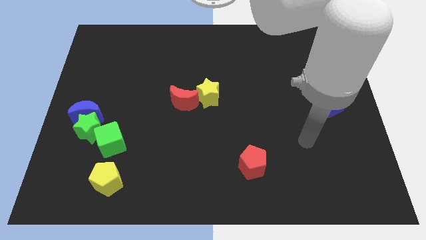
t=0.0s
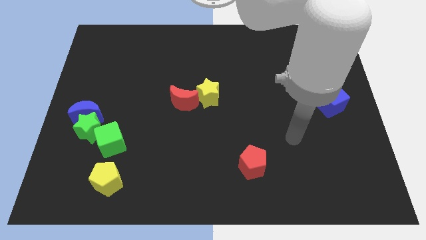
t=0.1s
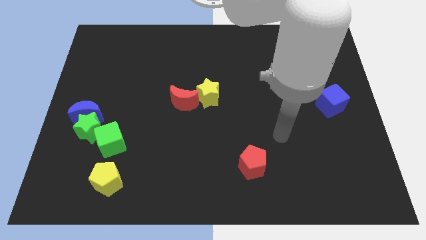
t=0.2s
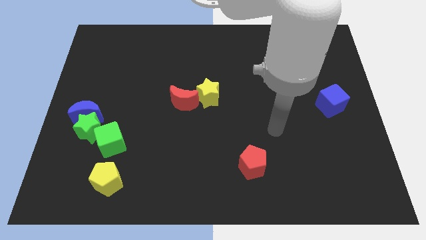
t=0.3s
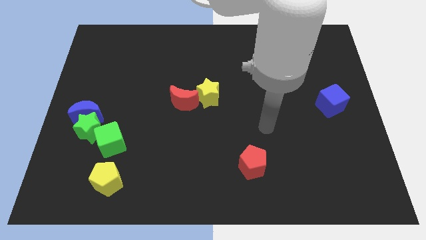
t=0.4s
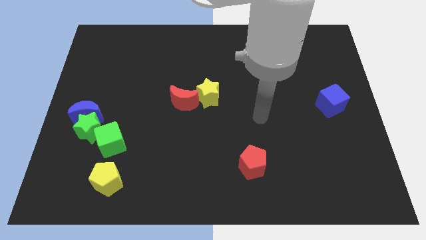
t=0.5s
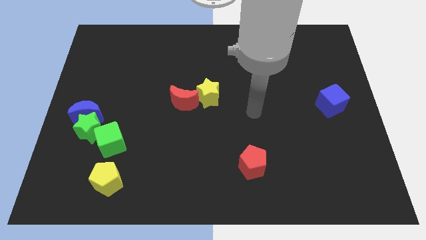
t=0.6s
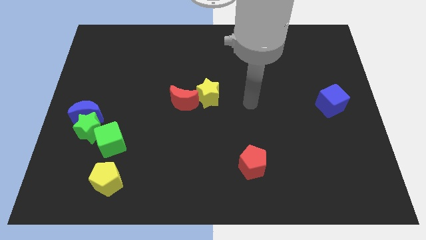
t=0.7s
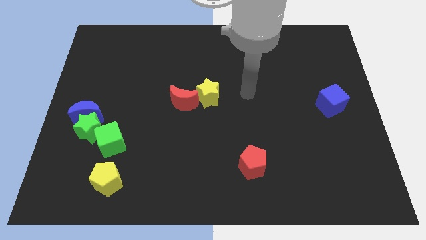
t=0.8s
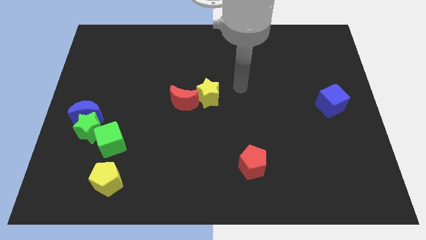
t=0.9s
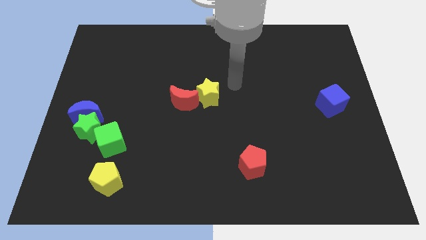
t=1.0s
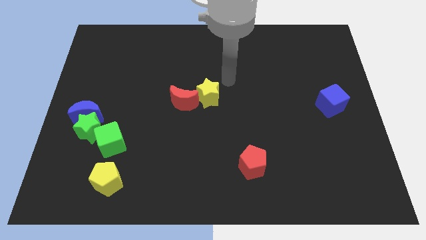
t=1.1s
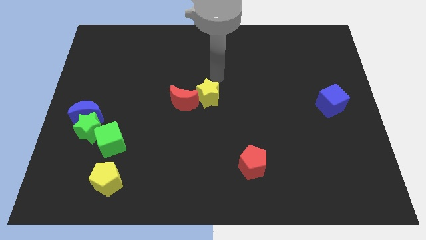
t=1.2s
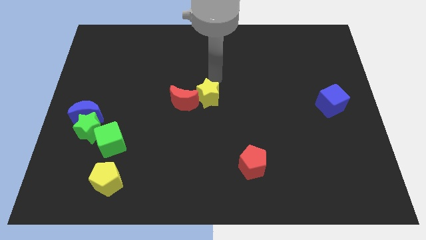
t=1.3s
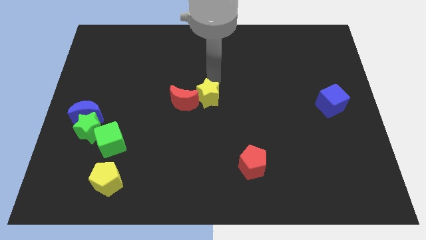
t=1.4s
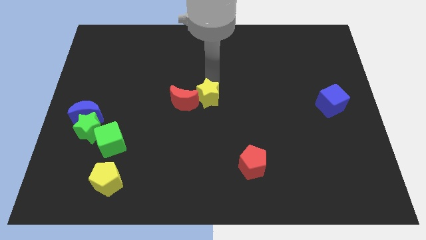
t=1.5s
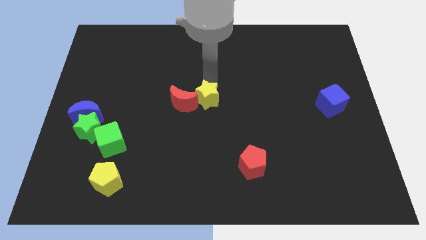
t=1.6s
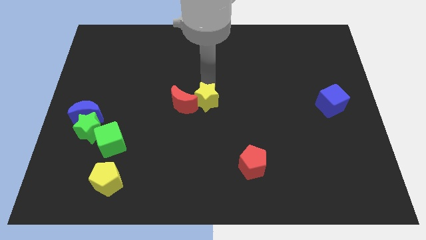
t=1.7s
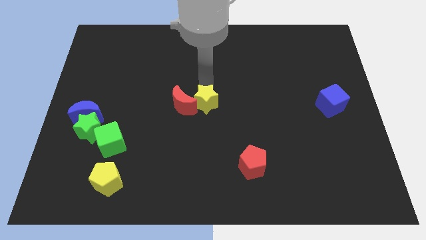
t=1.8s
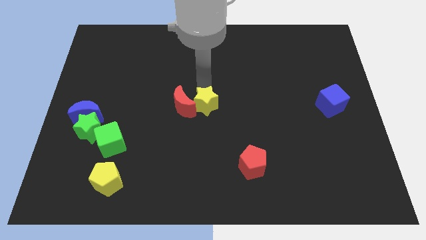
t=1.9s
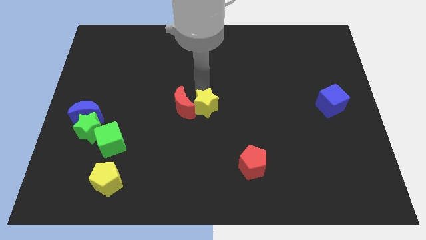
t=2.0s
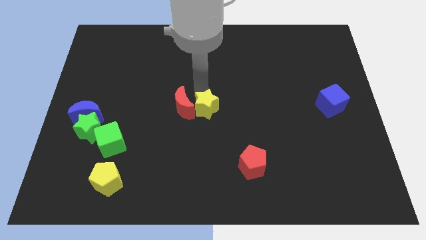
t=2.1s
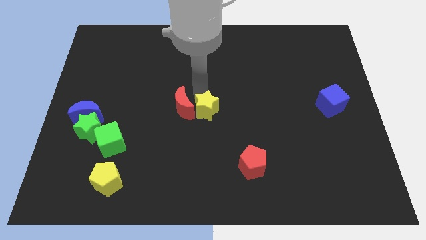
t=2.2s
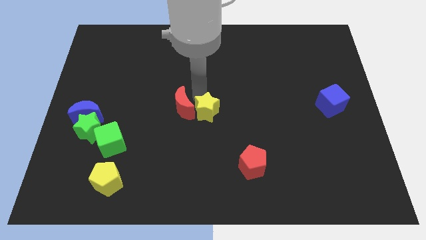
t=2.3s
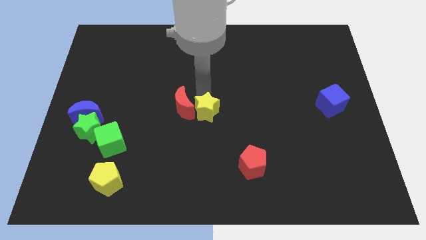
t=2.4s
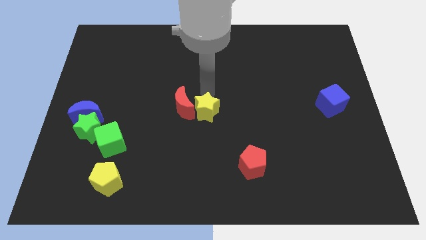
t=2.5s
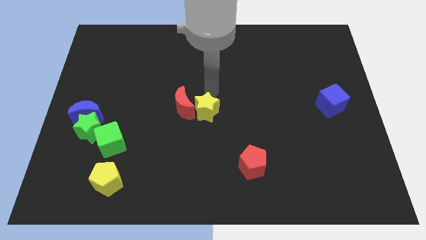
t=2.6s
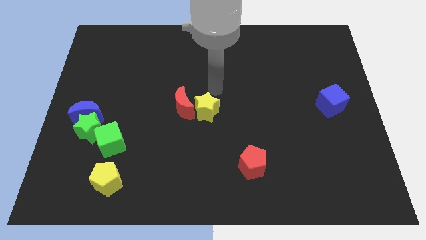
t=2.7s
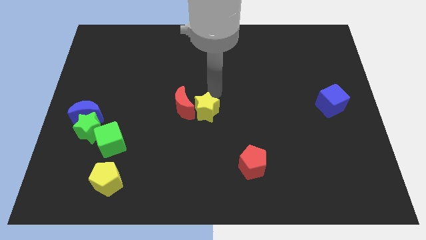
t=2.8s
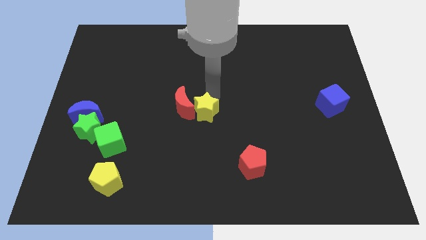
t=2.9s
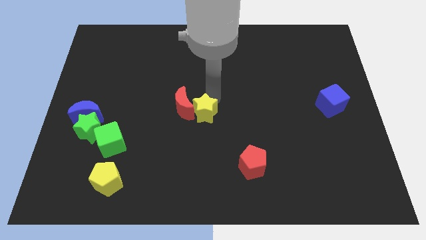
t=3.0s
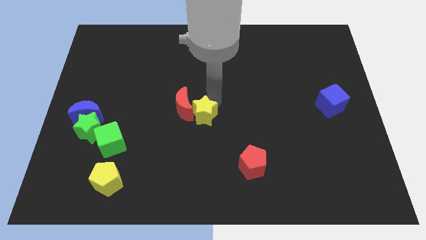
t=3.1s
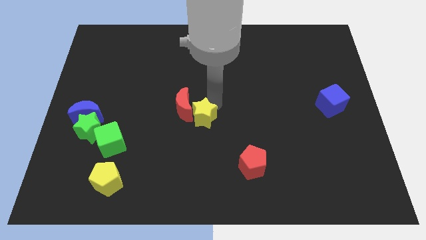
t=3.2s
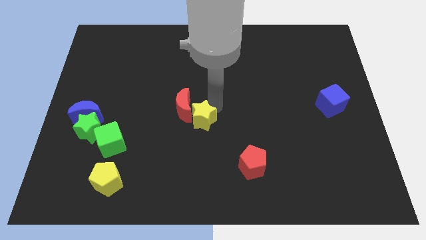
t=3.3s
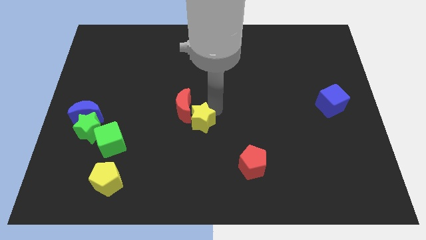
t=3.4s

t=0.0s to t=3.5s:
move the yellow star slightly down

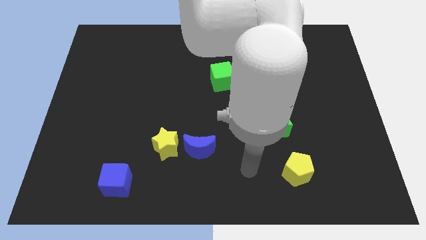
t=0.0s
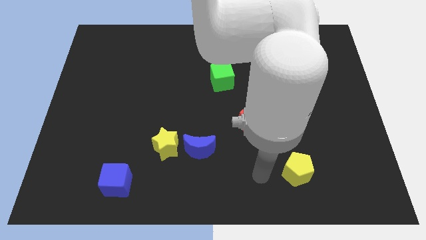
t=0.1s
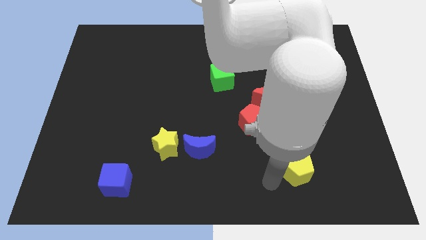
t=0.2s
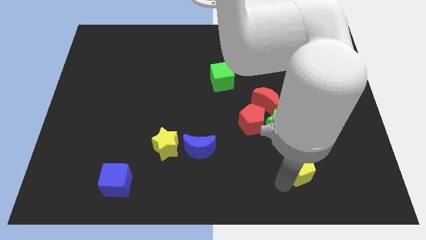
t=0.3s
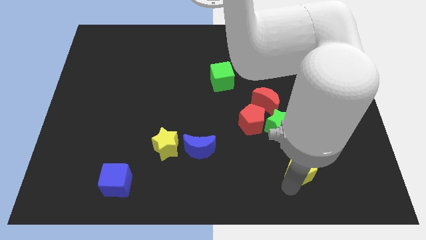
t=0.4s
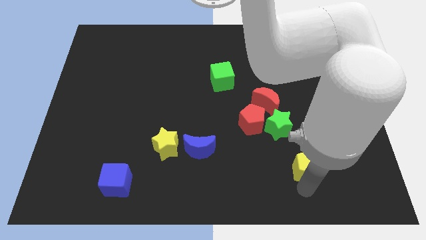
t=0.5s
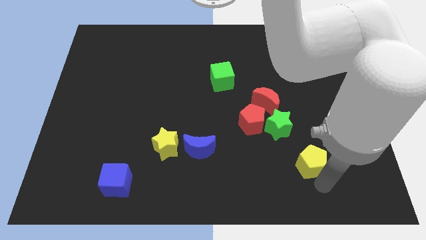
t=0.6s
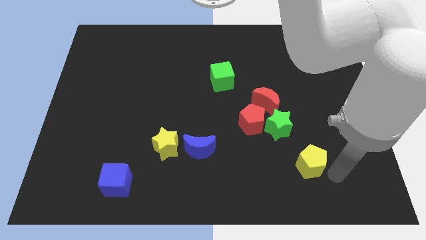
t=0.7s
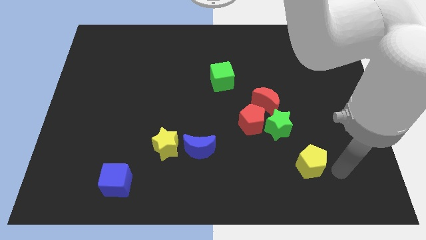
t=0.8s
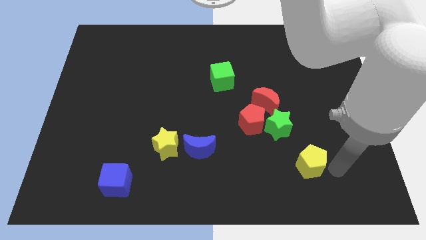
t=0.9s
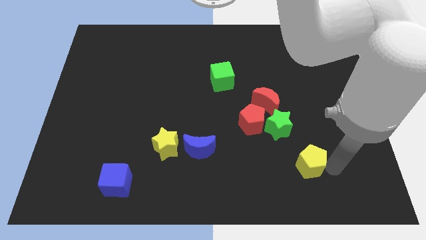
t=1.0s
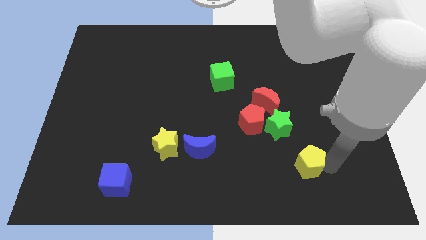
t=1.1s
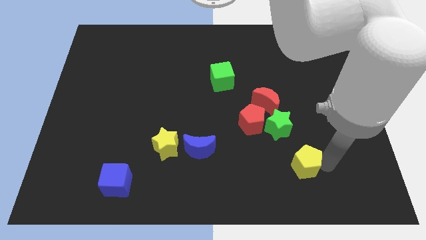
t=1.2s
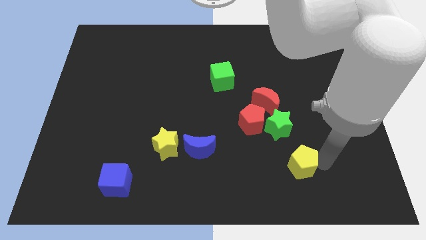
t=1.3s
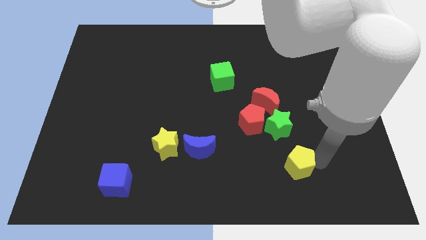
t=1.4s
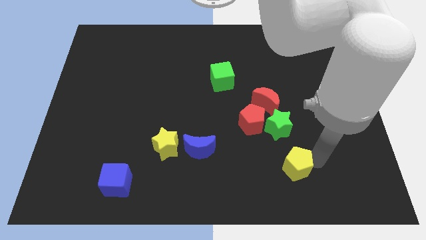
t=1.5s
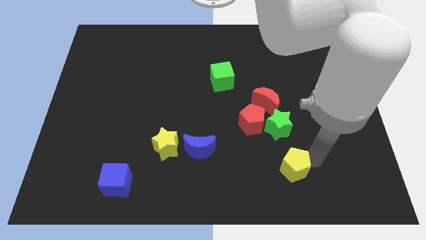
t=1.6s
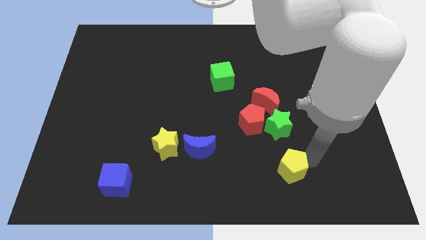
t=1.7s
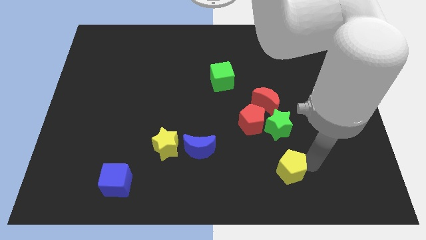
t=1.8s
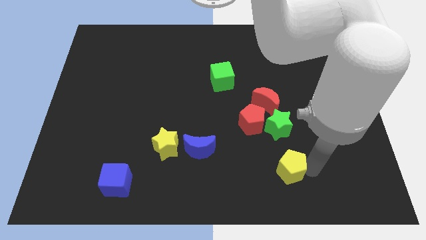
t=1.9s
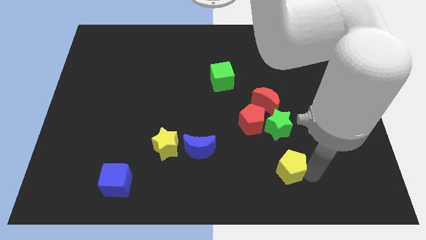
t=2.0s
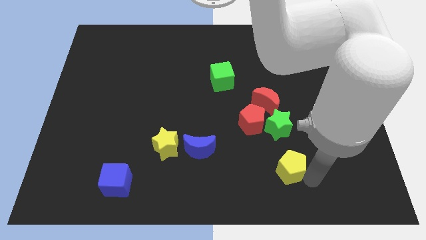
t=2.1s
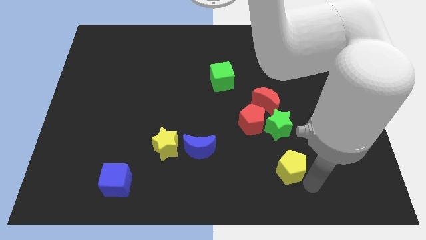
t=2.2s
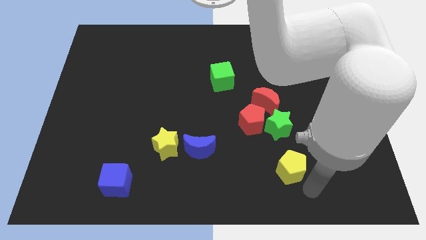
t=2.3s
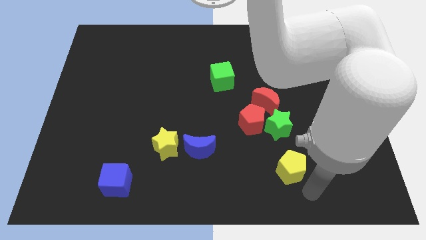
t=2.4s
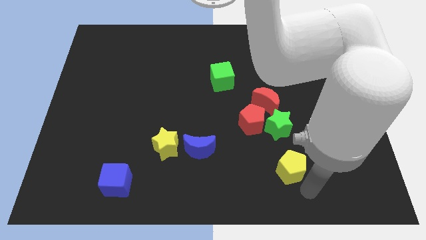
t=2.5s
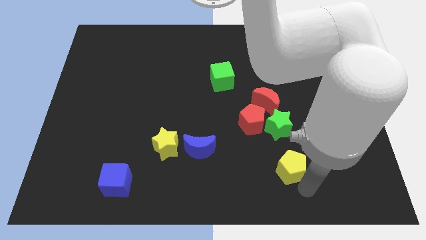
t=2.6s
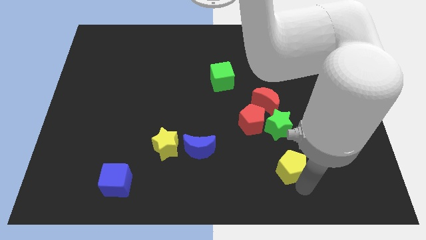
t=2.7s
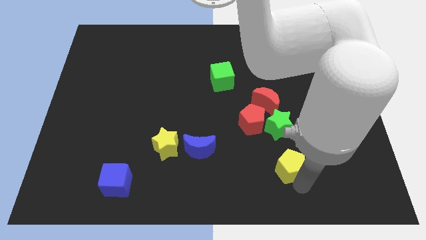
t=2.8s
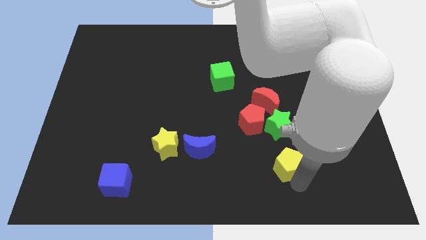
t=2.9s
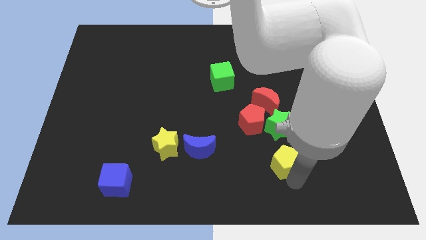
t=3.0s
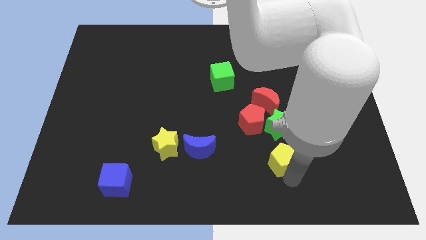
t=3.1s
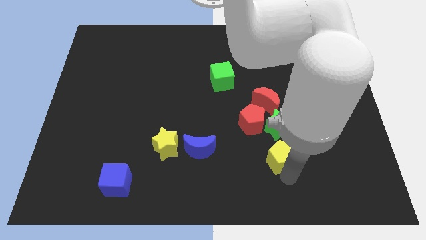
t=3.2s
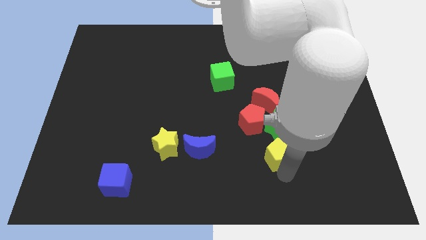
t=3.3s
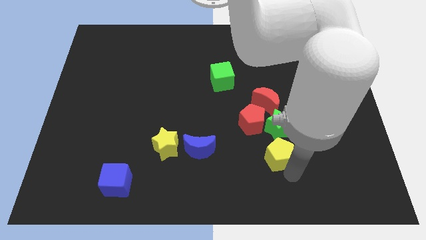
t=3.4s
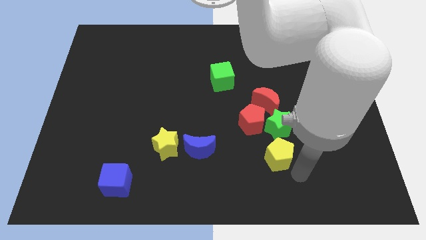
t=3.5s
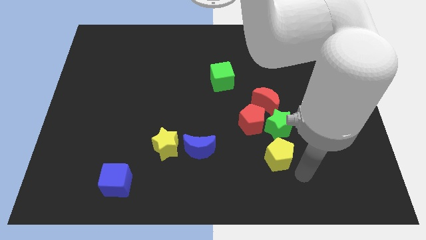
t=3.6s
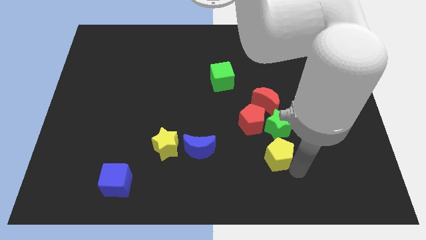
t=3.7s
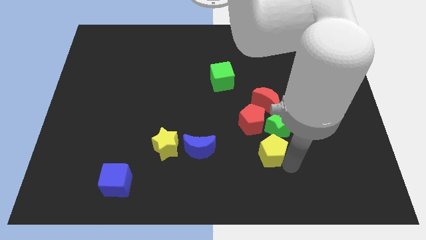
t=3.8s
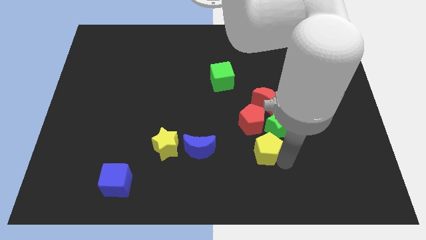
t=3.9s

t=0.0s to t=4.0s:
slightly slide the yellow pentagon upwards and left

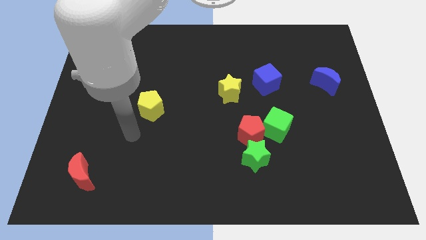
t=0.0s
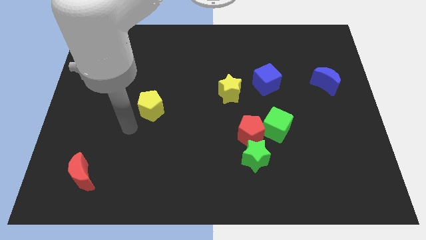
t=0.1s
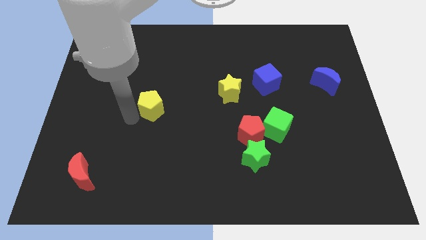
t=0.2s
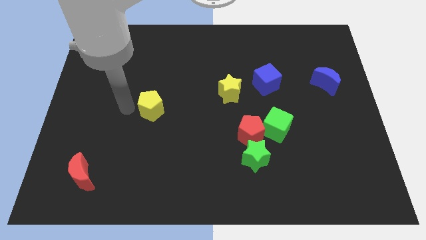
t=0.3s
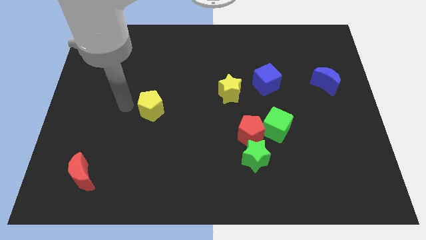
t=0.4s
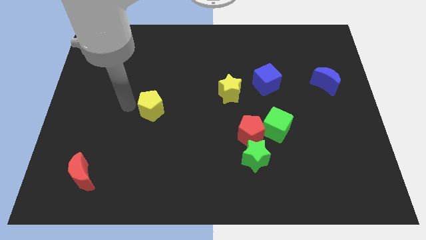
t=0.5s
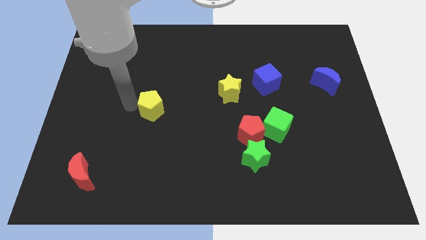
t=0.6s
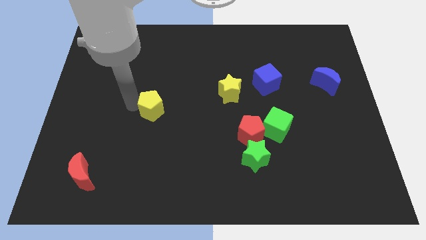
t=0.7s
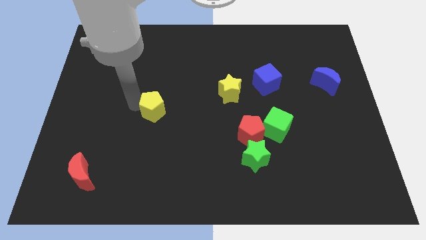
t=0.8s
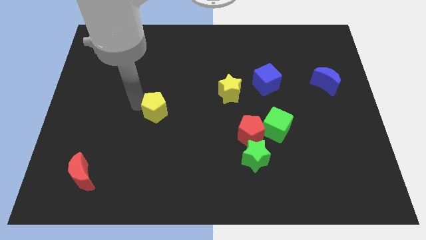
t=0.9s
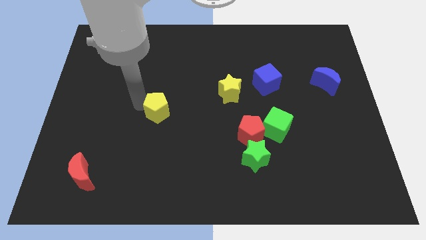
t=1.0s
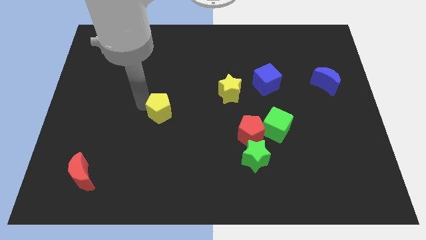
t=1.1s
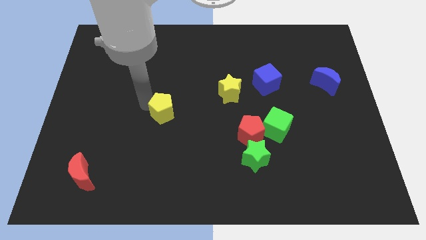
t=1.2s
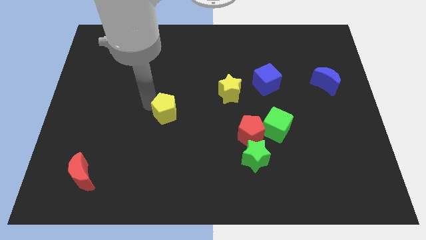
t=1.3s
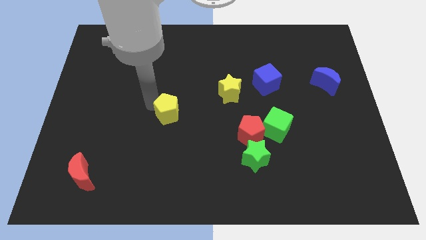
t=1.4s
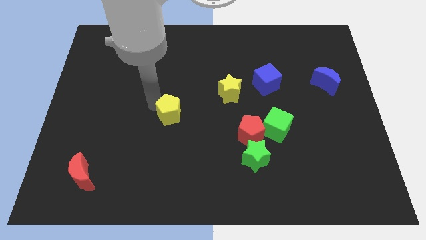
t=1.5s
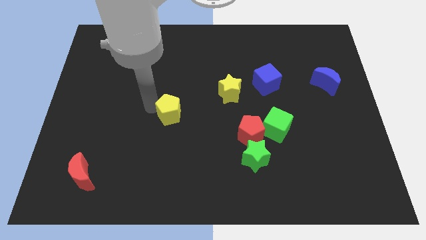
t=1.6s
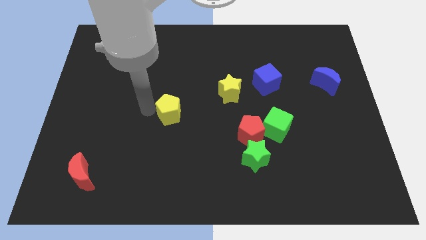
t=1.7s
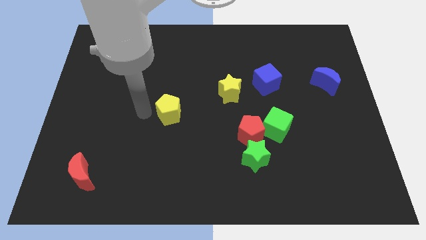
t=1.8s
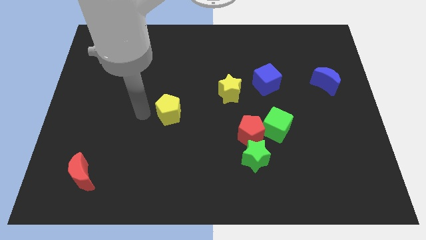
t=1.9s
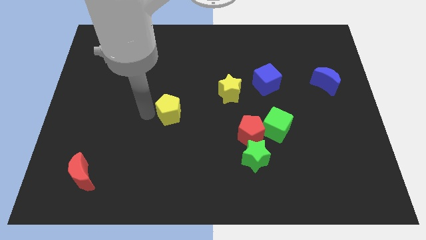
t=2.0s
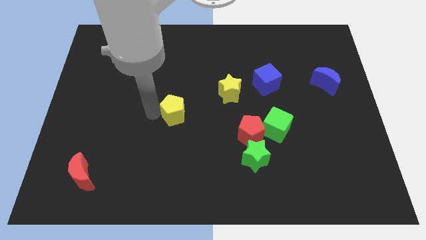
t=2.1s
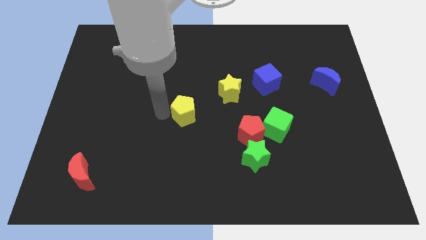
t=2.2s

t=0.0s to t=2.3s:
slightly move the yellow pentagon to the right
